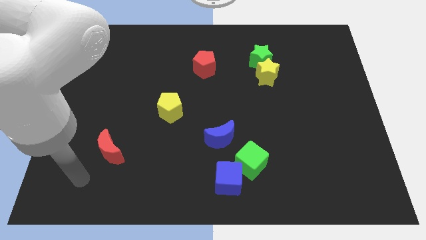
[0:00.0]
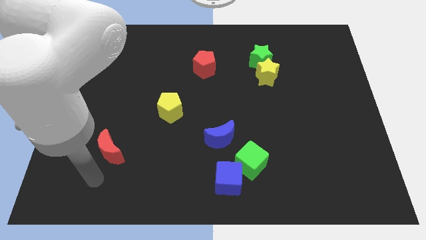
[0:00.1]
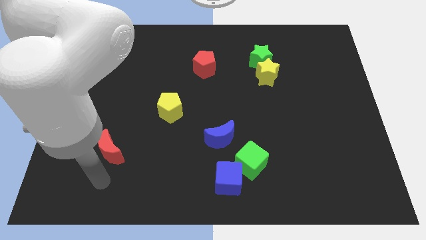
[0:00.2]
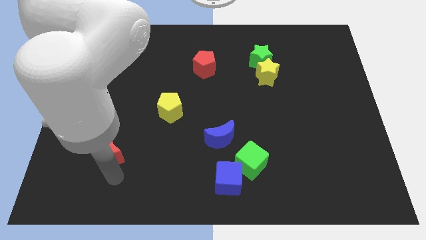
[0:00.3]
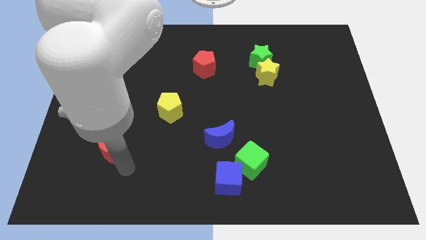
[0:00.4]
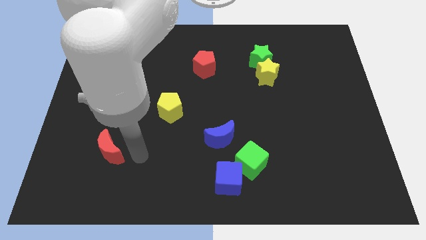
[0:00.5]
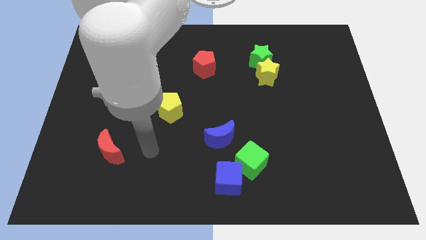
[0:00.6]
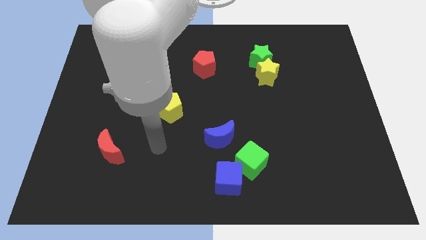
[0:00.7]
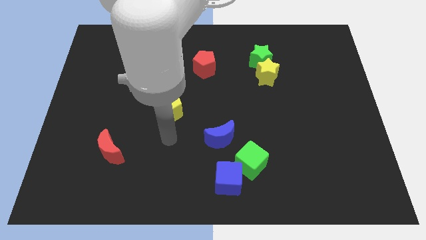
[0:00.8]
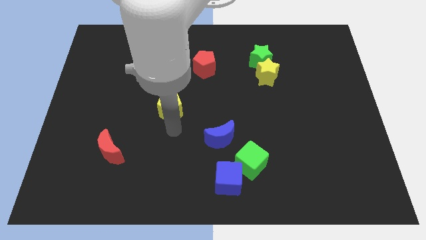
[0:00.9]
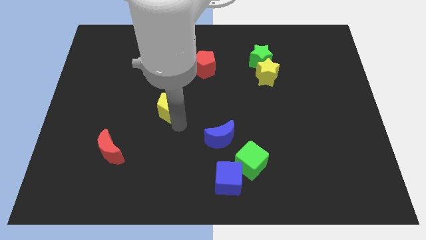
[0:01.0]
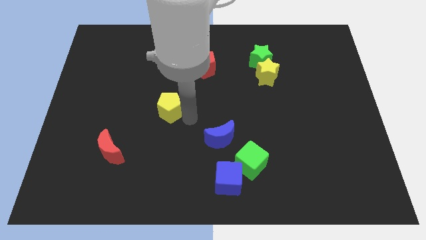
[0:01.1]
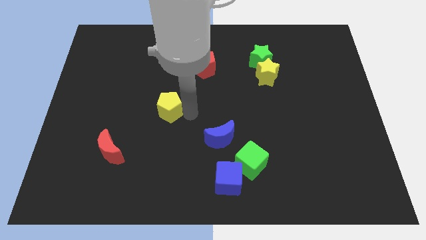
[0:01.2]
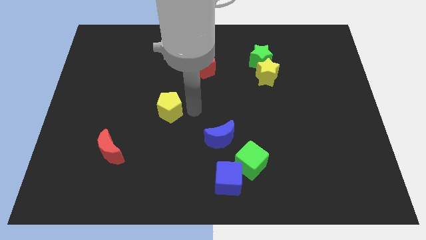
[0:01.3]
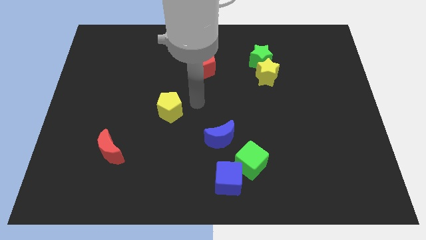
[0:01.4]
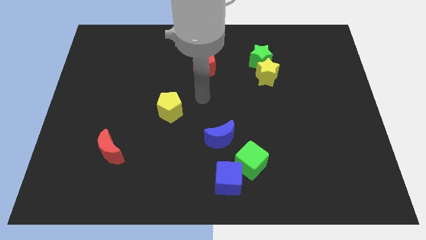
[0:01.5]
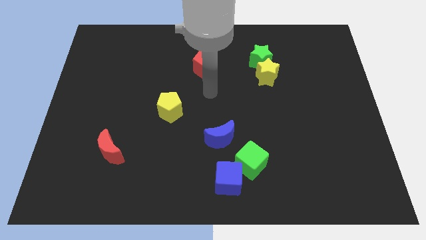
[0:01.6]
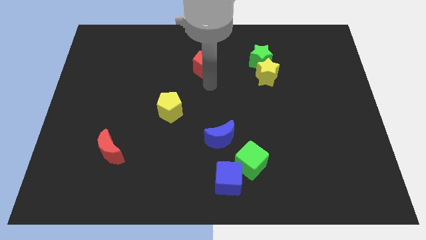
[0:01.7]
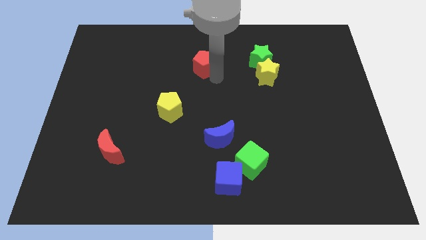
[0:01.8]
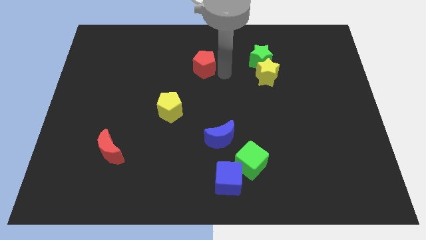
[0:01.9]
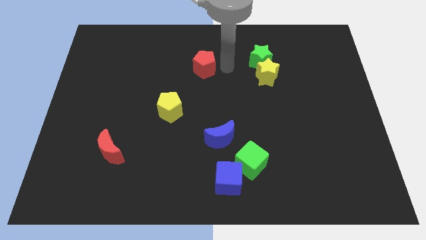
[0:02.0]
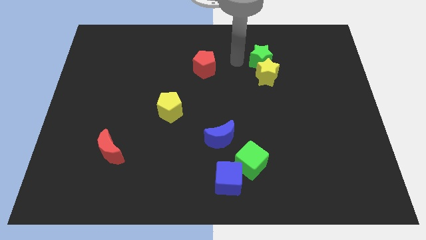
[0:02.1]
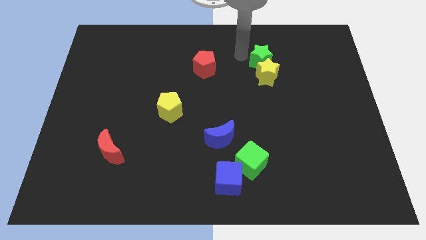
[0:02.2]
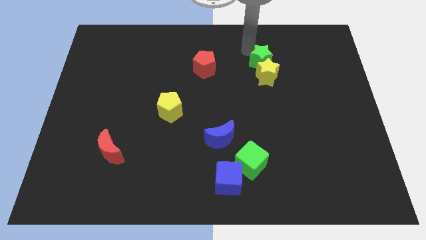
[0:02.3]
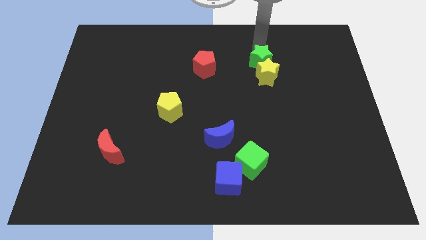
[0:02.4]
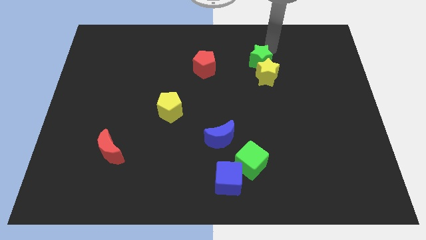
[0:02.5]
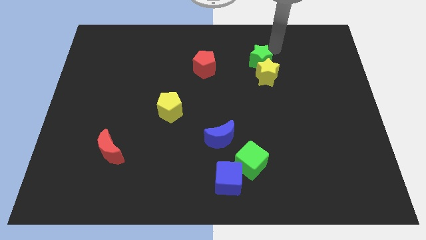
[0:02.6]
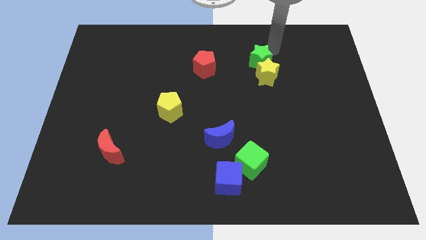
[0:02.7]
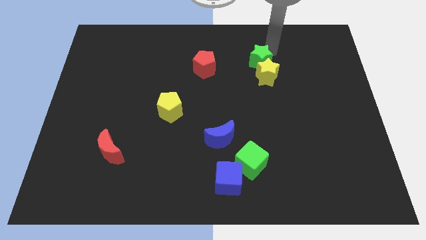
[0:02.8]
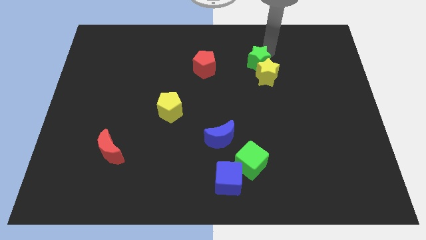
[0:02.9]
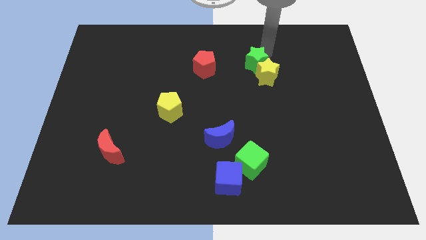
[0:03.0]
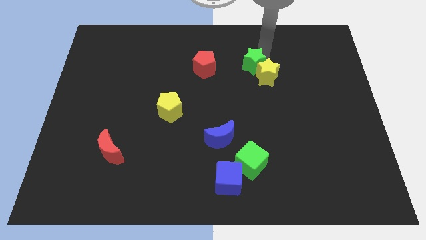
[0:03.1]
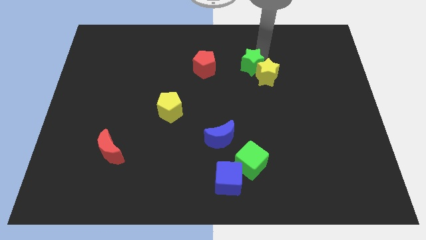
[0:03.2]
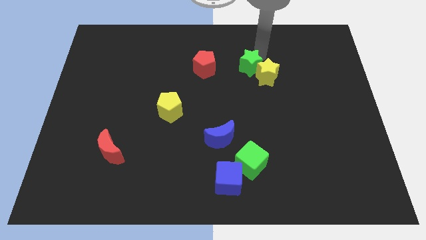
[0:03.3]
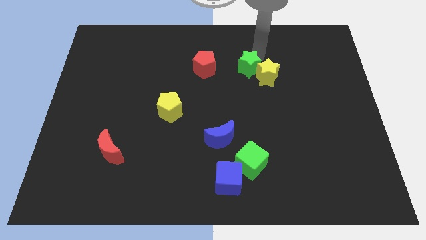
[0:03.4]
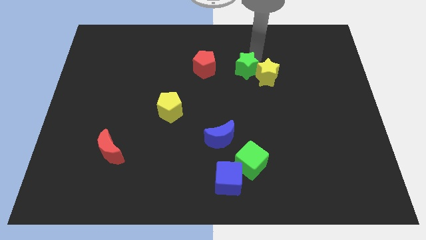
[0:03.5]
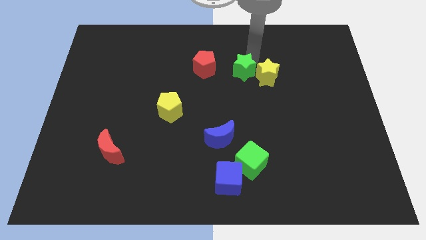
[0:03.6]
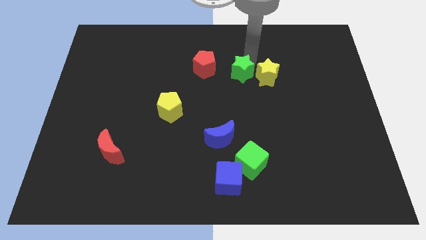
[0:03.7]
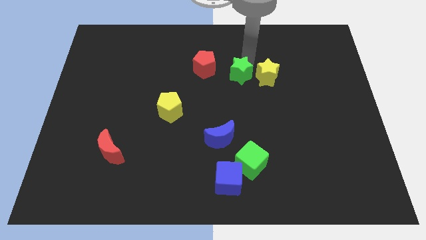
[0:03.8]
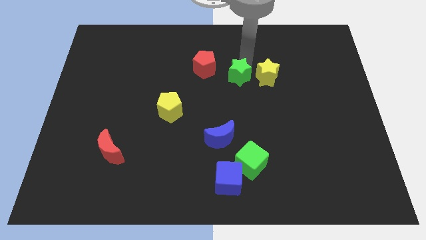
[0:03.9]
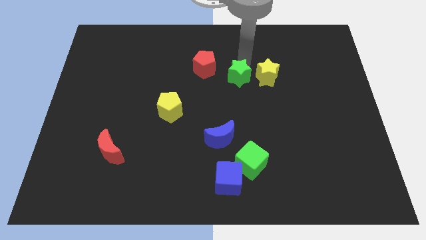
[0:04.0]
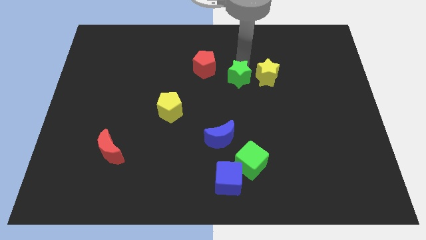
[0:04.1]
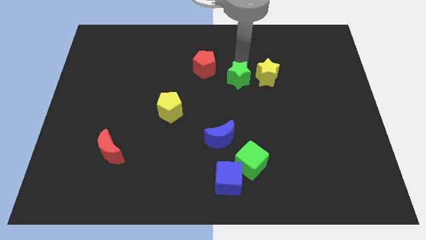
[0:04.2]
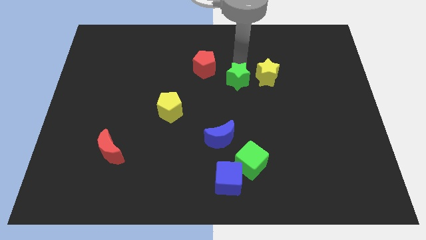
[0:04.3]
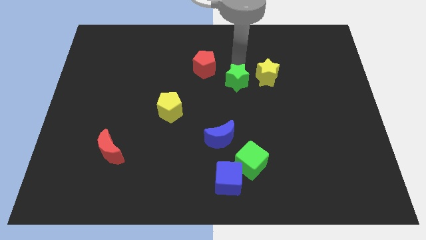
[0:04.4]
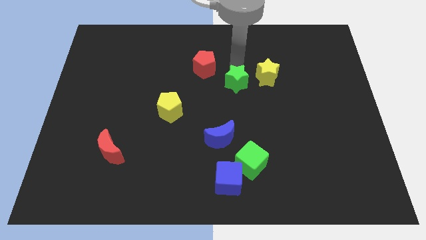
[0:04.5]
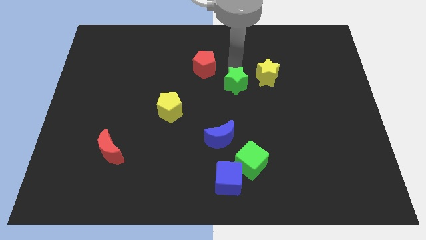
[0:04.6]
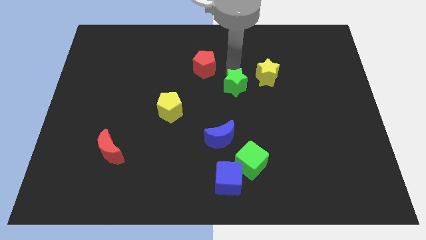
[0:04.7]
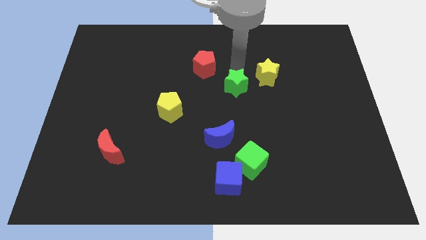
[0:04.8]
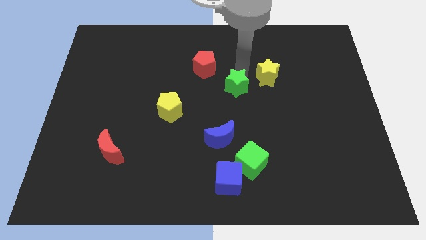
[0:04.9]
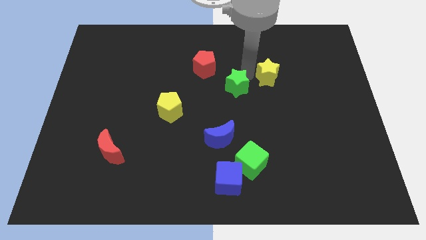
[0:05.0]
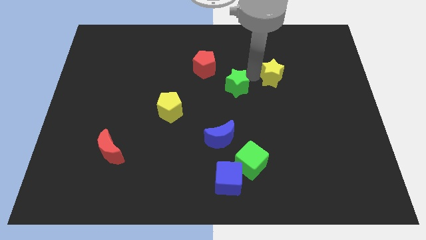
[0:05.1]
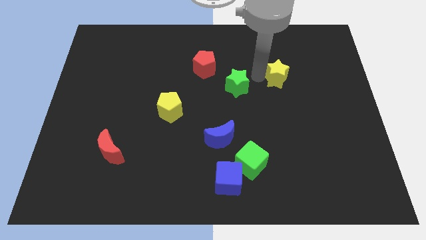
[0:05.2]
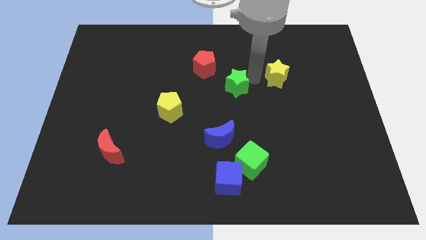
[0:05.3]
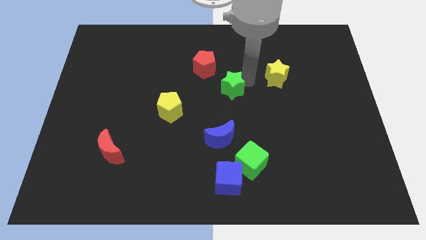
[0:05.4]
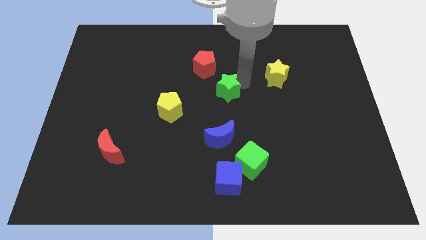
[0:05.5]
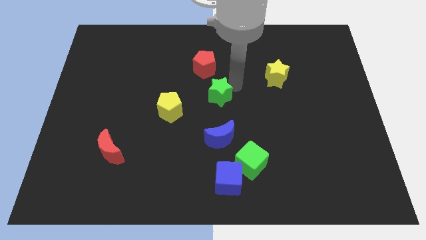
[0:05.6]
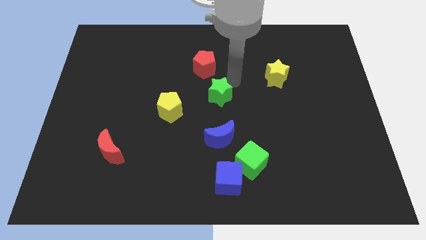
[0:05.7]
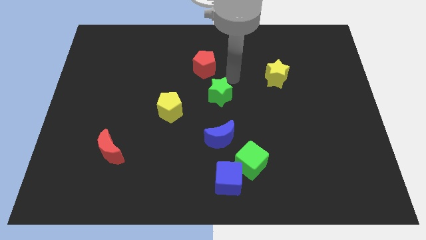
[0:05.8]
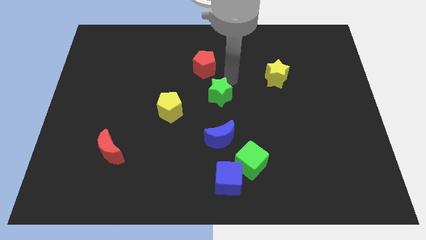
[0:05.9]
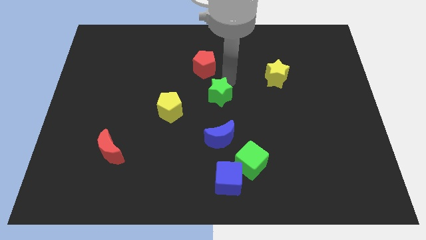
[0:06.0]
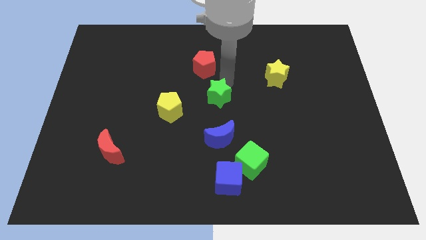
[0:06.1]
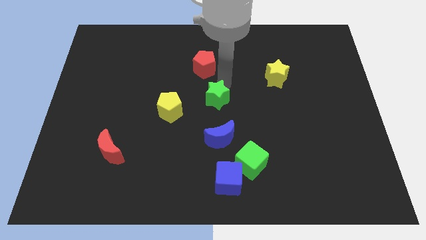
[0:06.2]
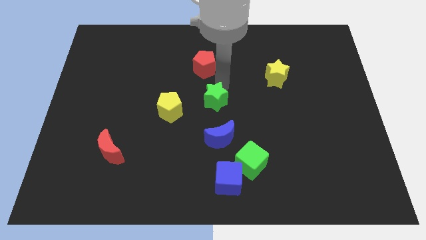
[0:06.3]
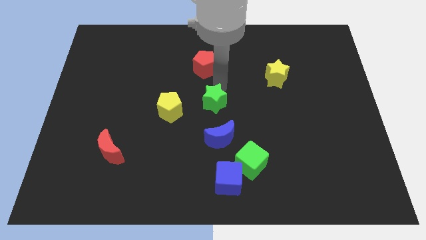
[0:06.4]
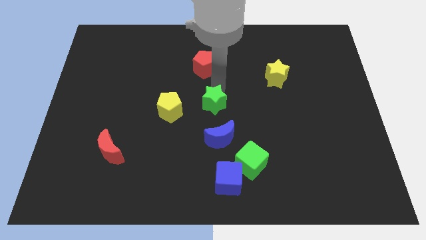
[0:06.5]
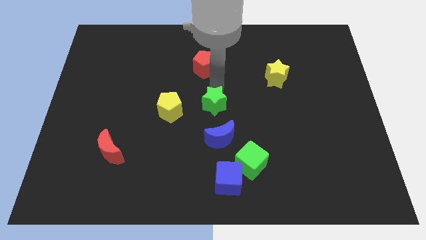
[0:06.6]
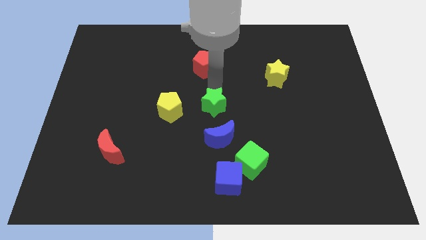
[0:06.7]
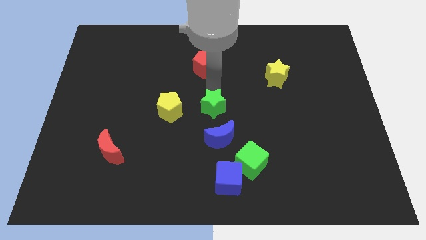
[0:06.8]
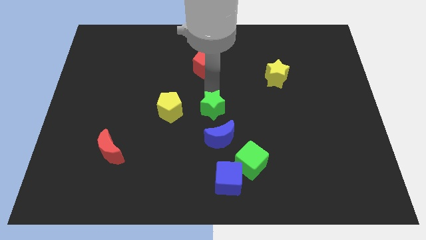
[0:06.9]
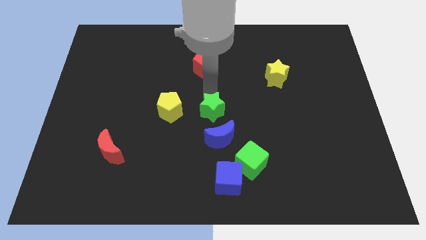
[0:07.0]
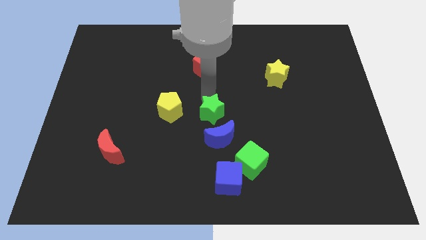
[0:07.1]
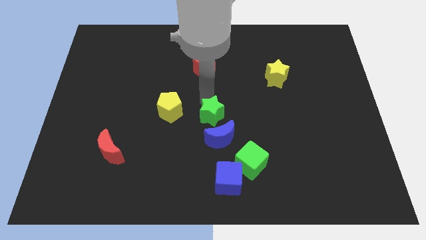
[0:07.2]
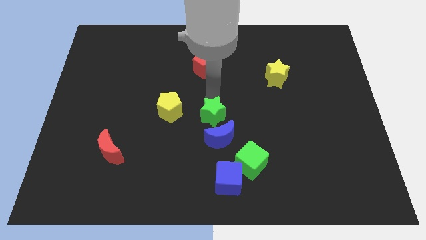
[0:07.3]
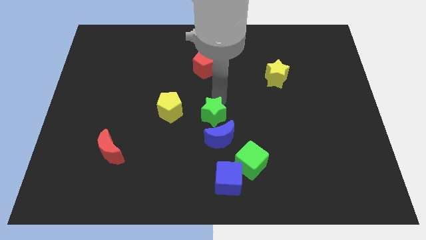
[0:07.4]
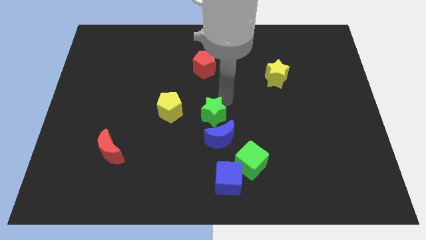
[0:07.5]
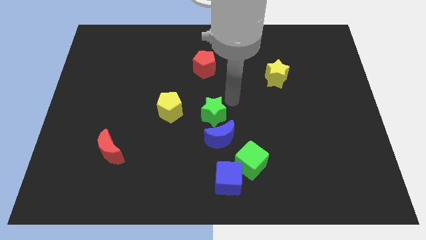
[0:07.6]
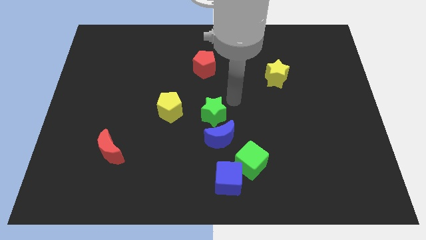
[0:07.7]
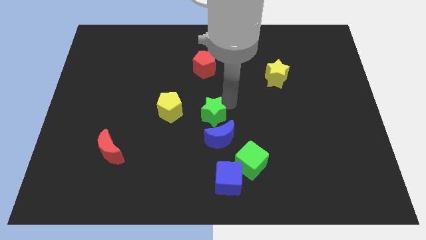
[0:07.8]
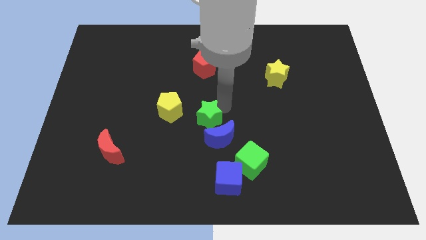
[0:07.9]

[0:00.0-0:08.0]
push the green star to the bottom right of the yellow pentagon
